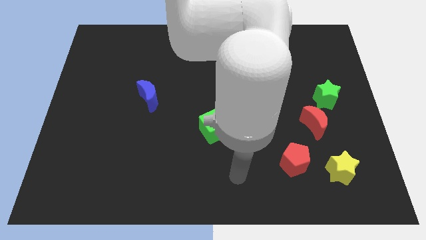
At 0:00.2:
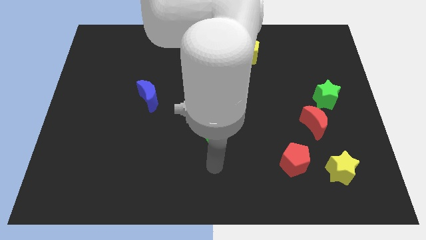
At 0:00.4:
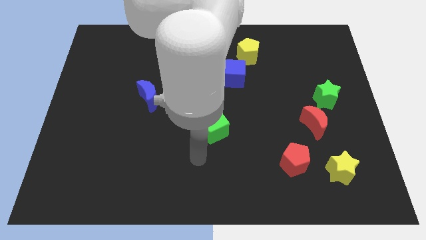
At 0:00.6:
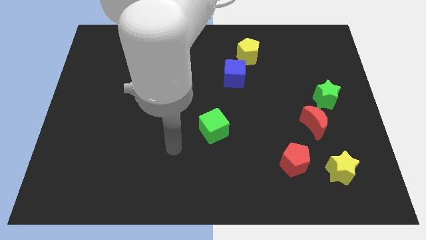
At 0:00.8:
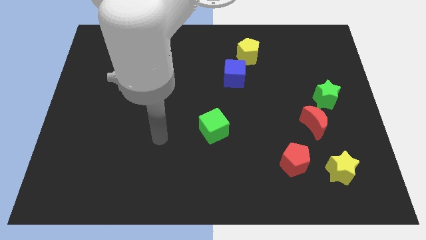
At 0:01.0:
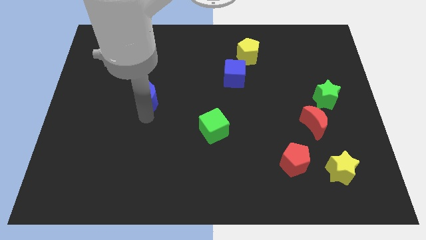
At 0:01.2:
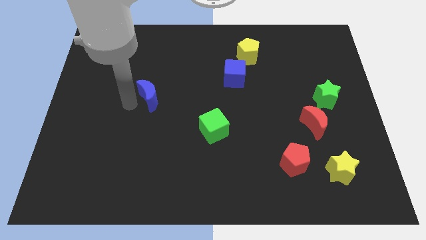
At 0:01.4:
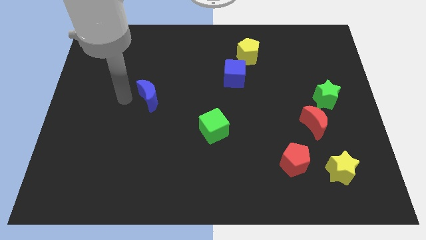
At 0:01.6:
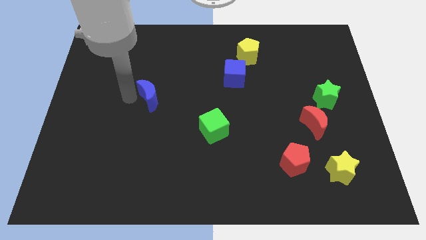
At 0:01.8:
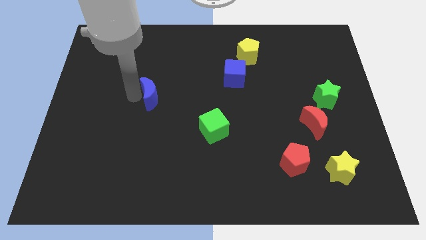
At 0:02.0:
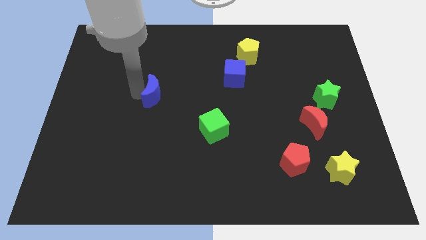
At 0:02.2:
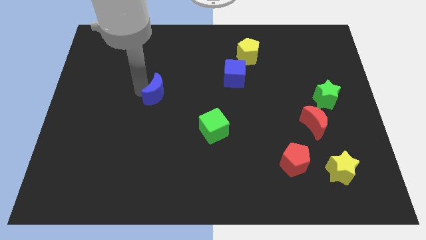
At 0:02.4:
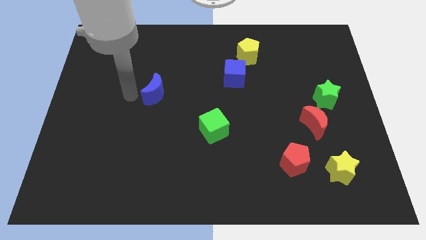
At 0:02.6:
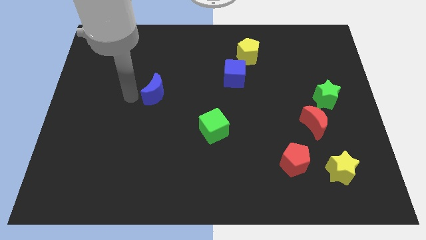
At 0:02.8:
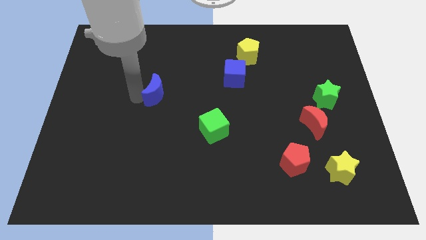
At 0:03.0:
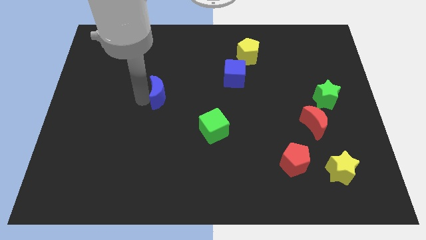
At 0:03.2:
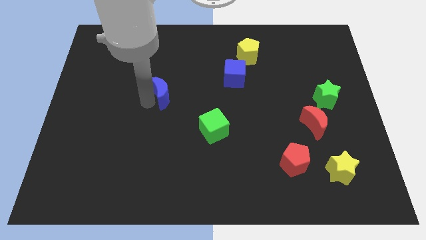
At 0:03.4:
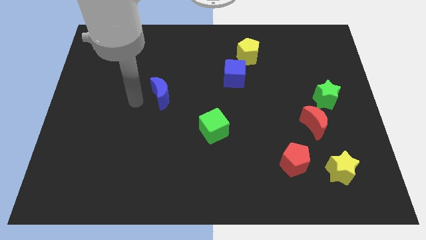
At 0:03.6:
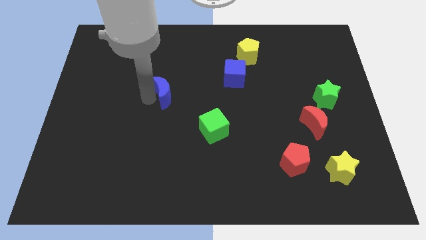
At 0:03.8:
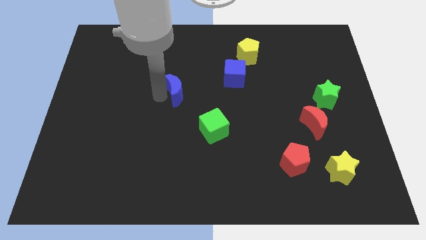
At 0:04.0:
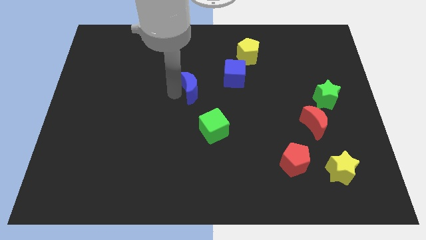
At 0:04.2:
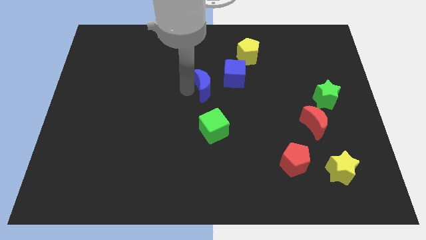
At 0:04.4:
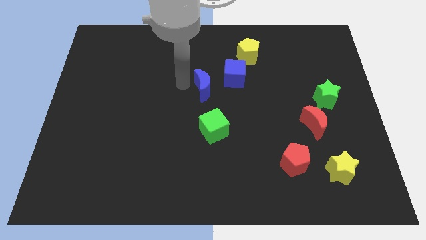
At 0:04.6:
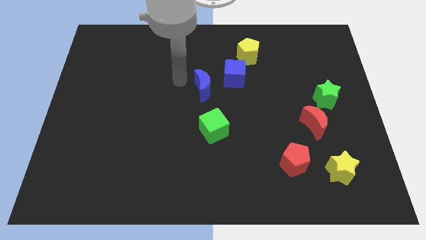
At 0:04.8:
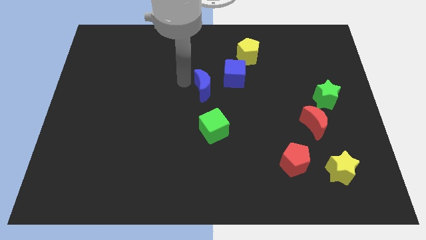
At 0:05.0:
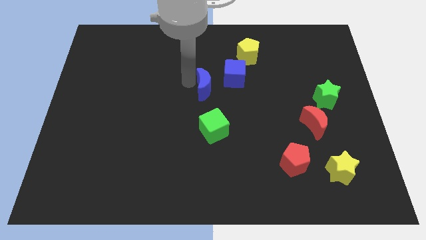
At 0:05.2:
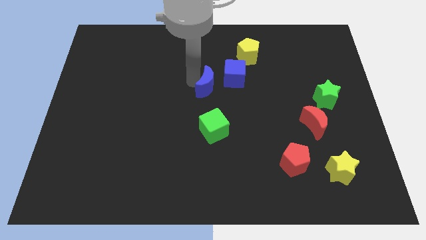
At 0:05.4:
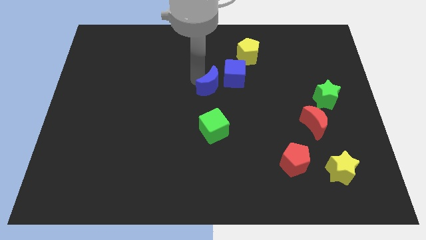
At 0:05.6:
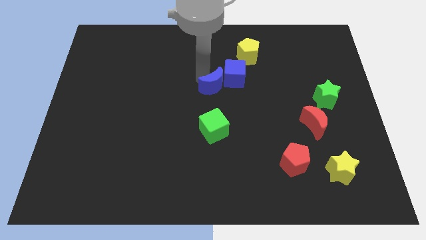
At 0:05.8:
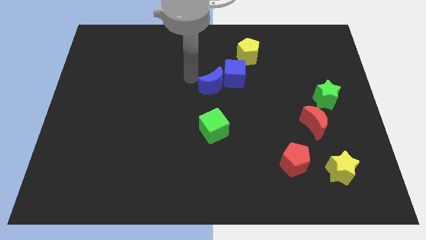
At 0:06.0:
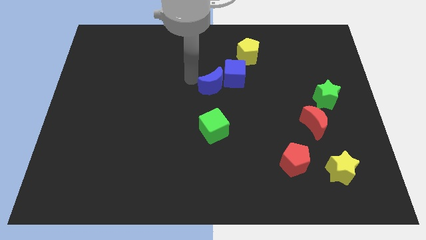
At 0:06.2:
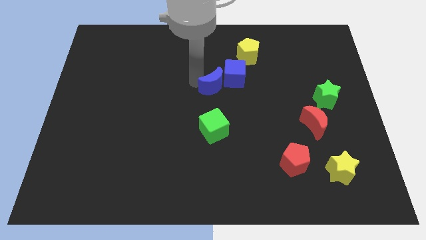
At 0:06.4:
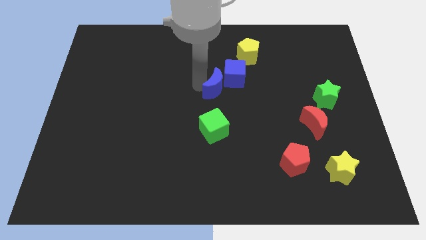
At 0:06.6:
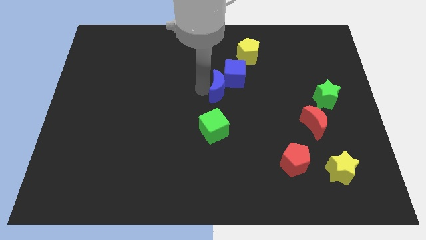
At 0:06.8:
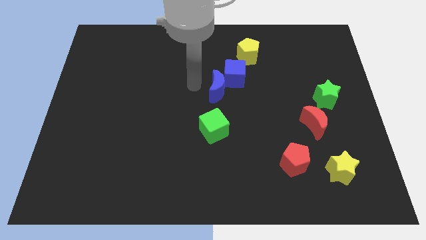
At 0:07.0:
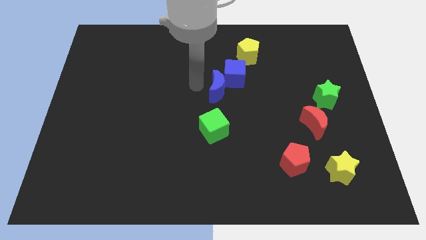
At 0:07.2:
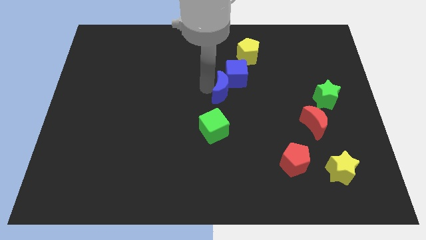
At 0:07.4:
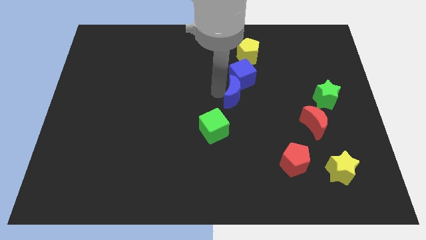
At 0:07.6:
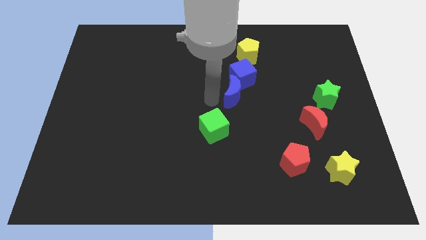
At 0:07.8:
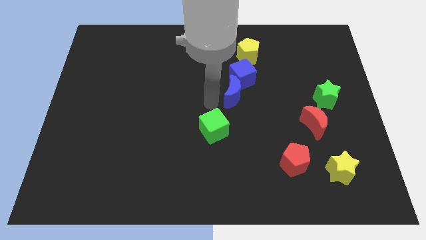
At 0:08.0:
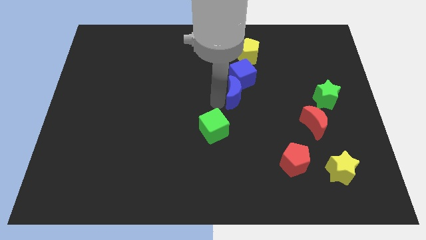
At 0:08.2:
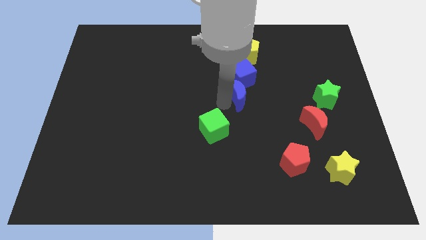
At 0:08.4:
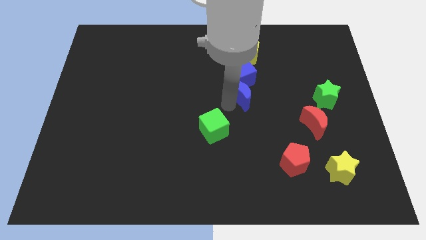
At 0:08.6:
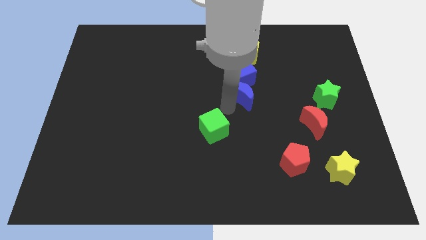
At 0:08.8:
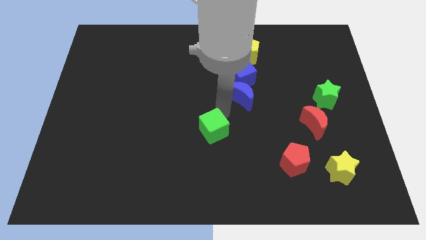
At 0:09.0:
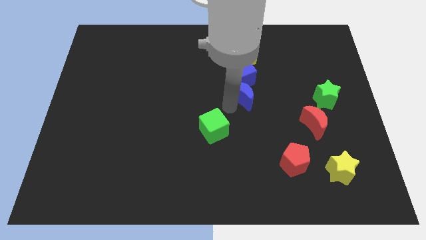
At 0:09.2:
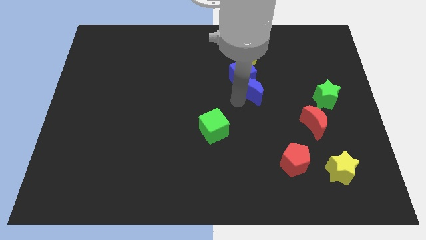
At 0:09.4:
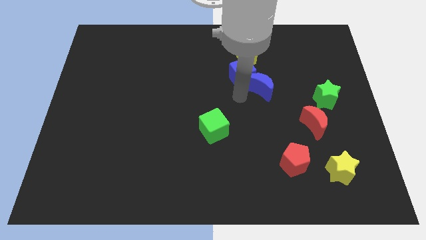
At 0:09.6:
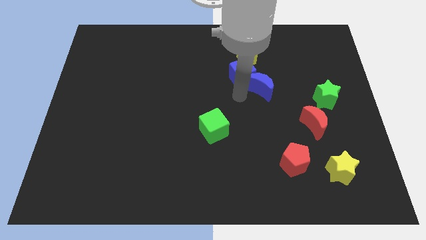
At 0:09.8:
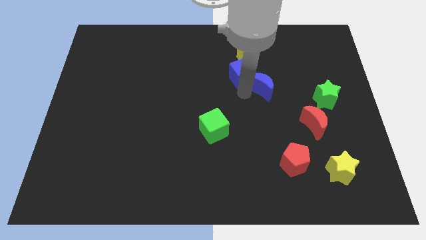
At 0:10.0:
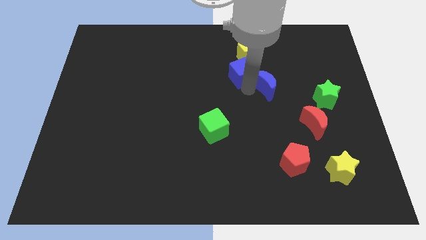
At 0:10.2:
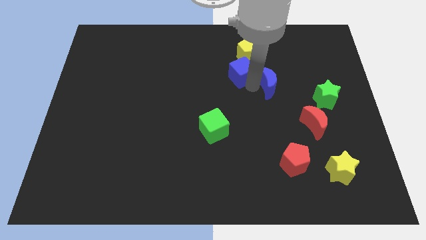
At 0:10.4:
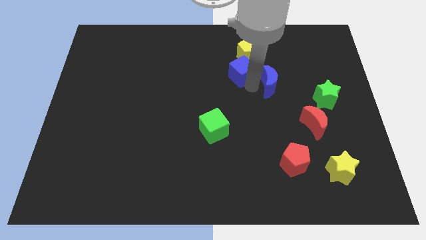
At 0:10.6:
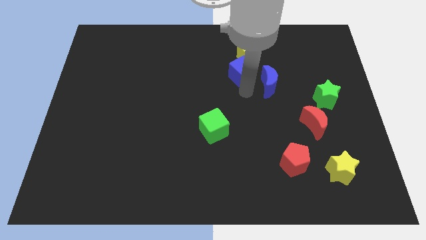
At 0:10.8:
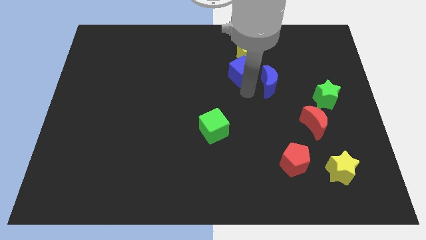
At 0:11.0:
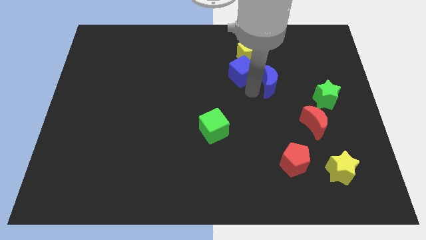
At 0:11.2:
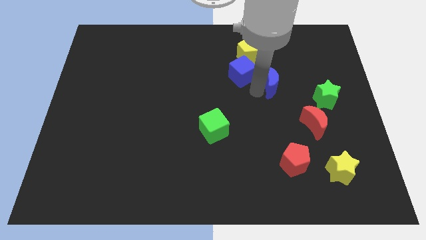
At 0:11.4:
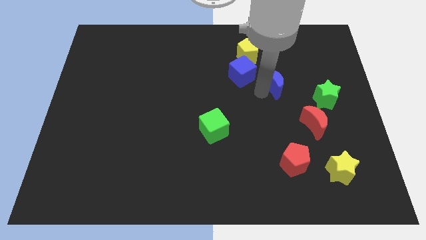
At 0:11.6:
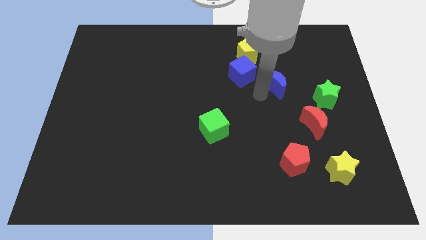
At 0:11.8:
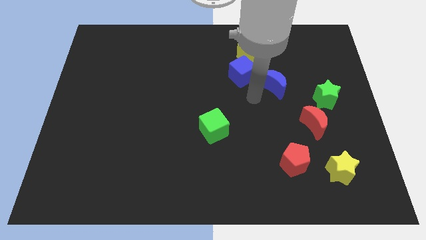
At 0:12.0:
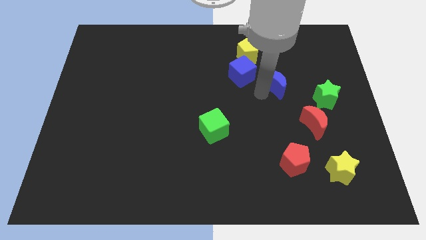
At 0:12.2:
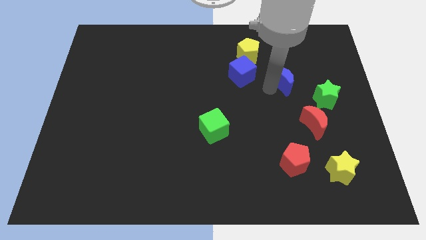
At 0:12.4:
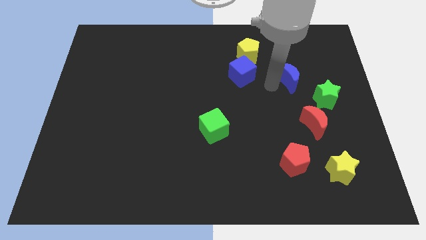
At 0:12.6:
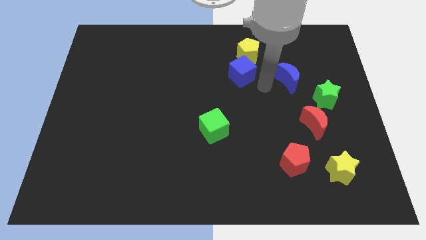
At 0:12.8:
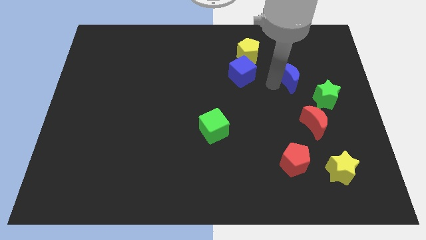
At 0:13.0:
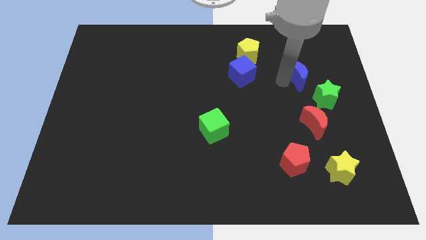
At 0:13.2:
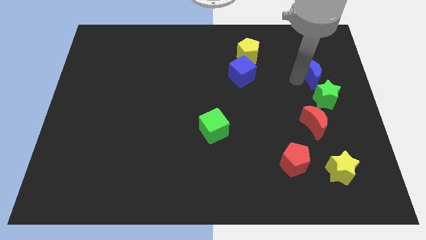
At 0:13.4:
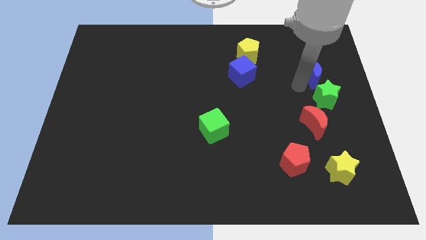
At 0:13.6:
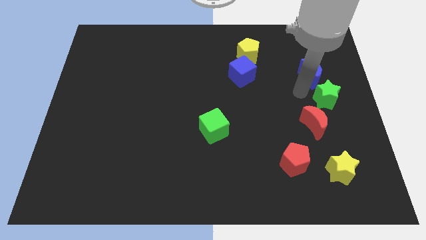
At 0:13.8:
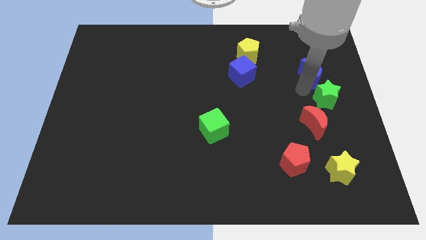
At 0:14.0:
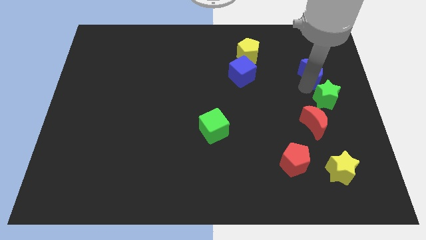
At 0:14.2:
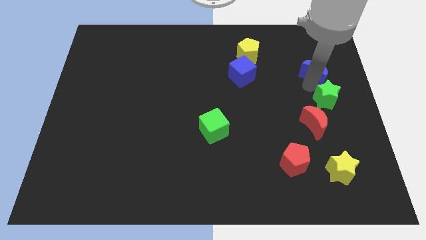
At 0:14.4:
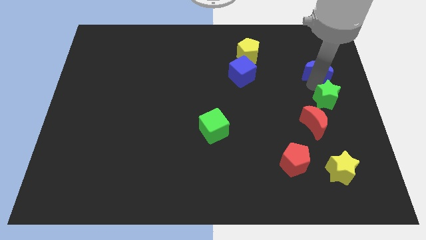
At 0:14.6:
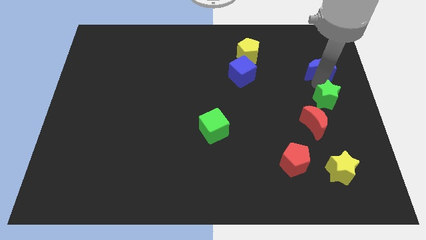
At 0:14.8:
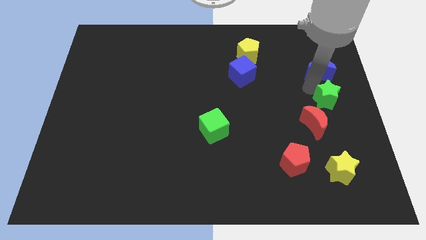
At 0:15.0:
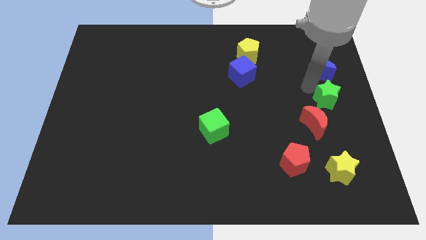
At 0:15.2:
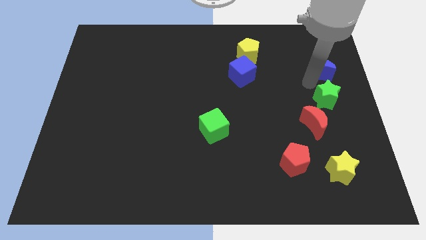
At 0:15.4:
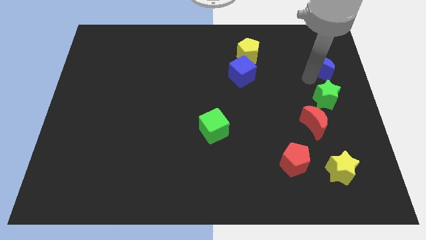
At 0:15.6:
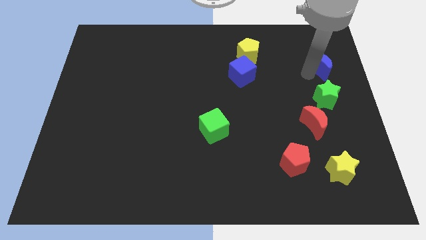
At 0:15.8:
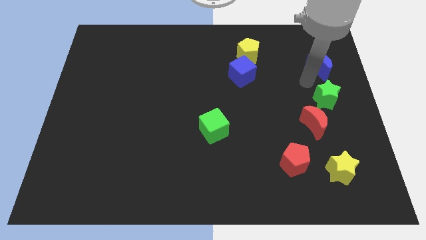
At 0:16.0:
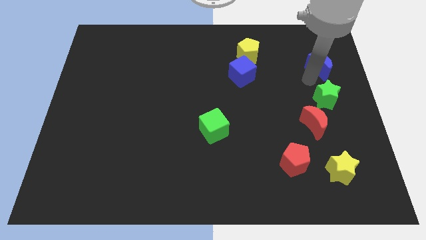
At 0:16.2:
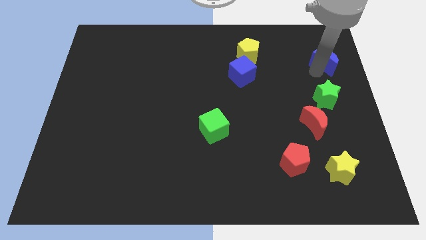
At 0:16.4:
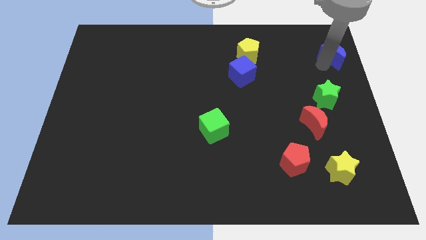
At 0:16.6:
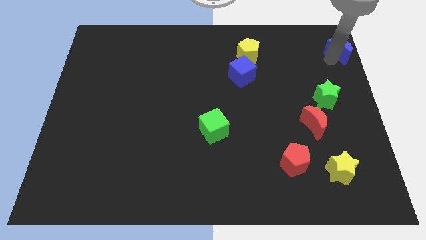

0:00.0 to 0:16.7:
put the blue moon to the top right
